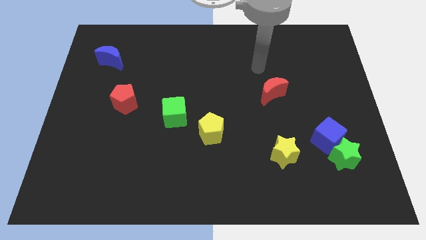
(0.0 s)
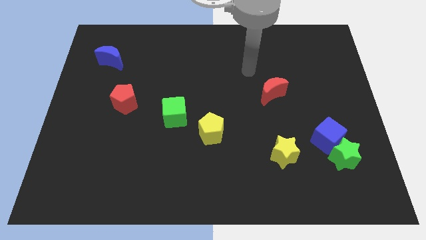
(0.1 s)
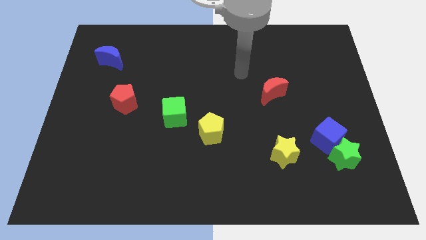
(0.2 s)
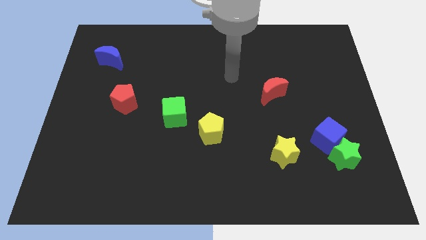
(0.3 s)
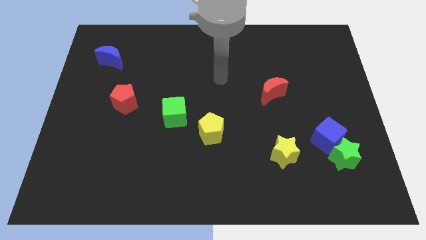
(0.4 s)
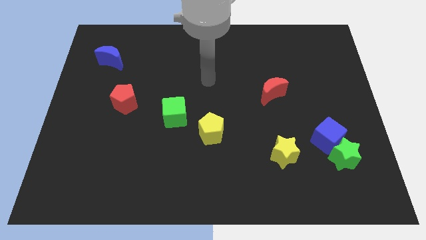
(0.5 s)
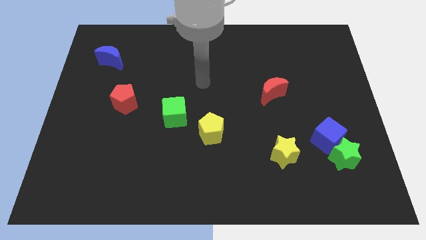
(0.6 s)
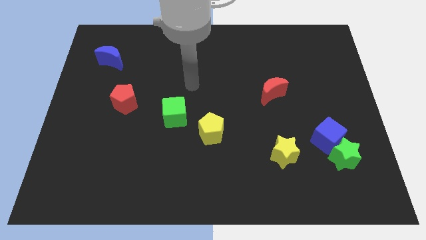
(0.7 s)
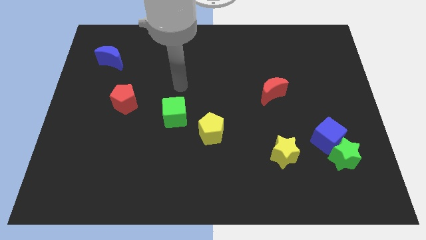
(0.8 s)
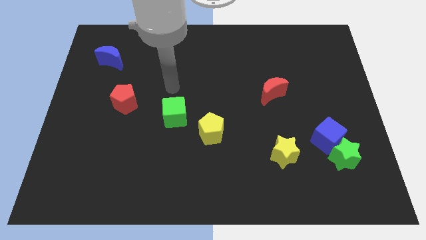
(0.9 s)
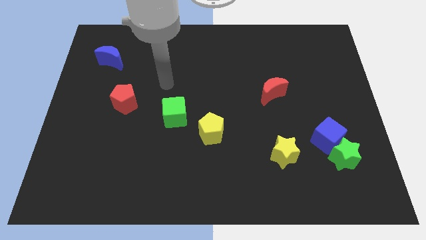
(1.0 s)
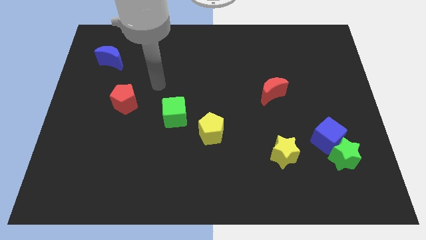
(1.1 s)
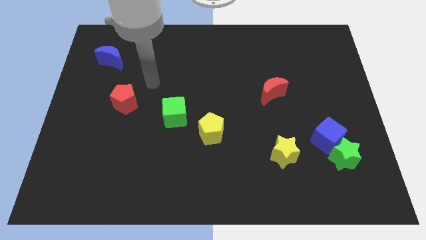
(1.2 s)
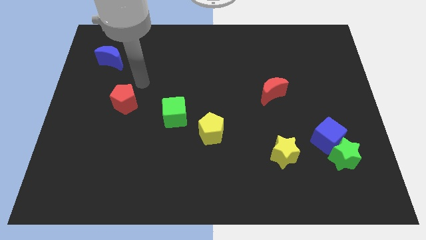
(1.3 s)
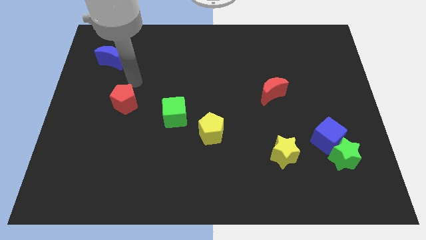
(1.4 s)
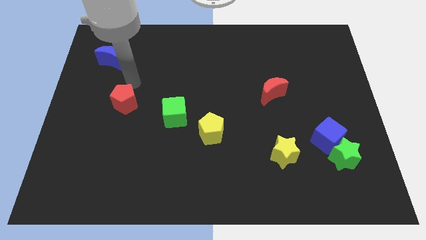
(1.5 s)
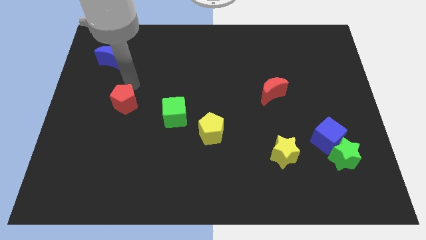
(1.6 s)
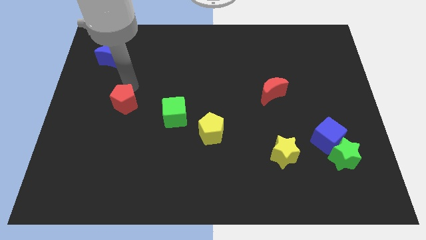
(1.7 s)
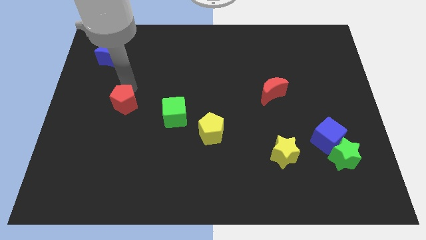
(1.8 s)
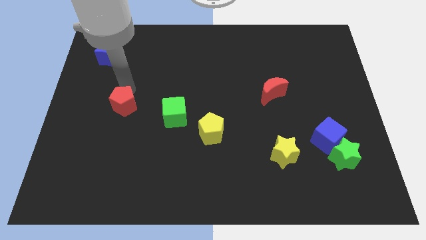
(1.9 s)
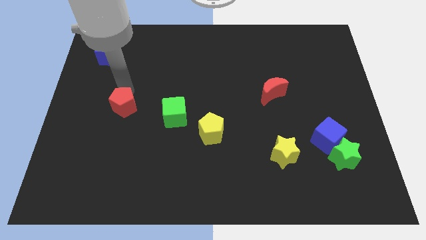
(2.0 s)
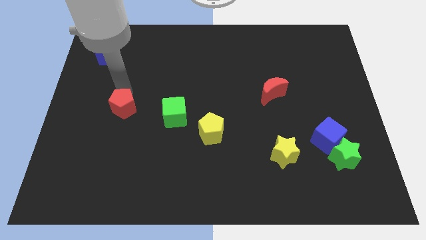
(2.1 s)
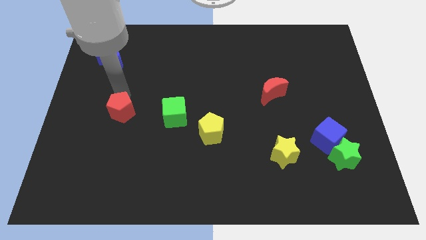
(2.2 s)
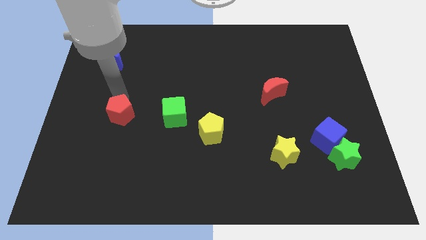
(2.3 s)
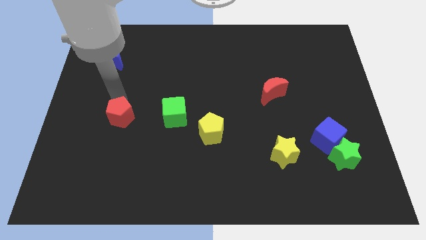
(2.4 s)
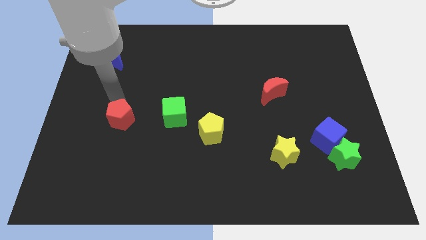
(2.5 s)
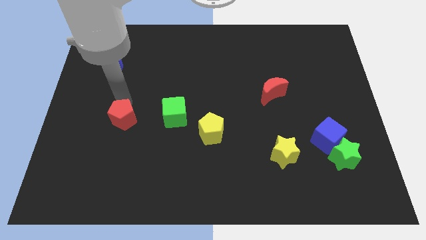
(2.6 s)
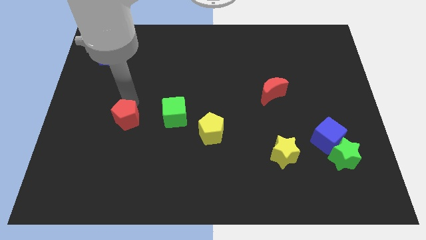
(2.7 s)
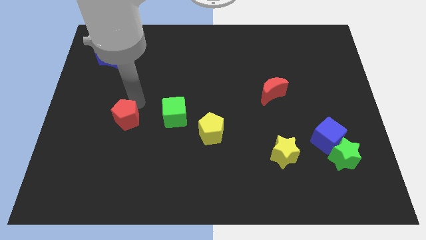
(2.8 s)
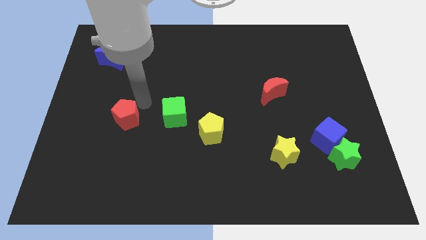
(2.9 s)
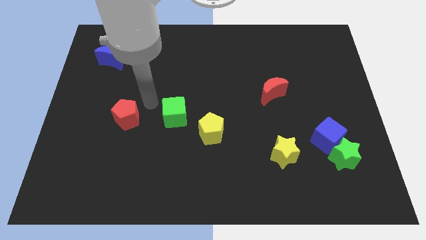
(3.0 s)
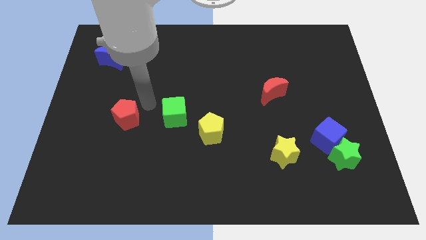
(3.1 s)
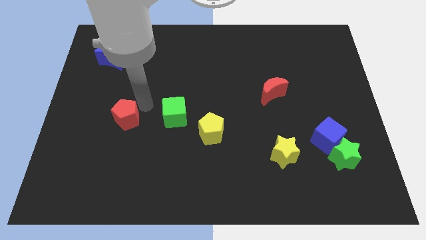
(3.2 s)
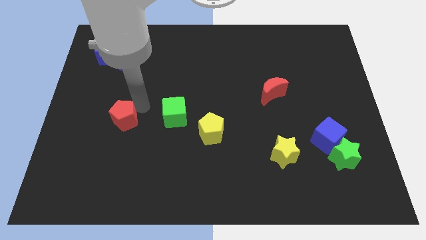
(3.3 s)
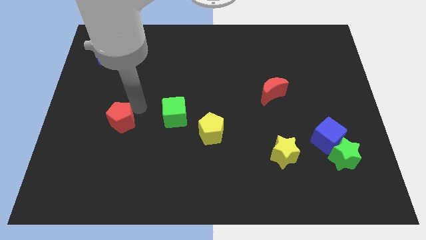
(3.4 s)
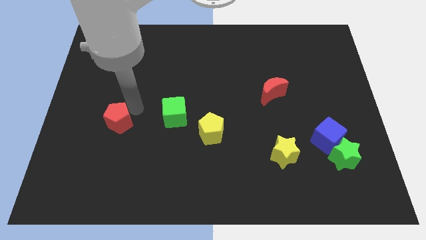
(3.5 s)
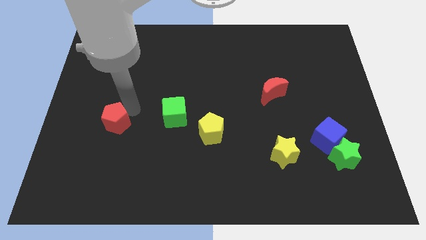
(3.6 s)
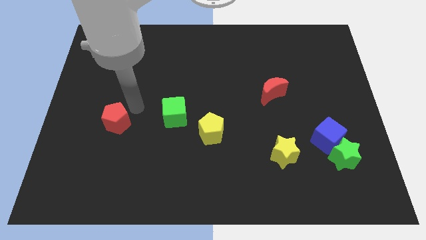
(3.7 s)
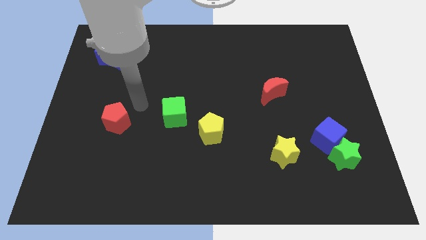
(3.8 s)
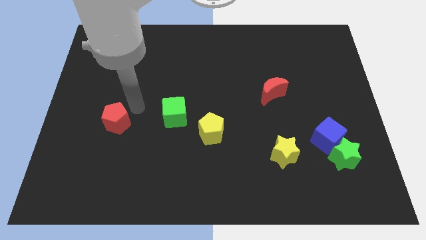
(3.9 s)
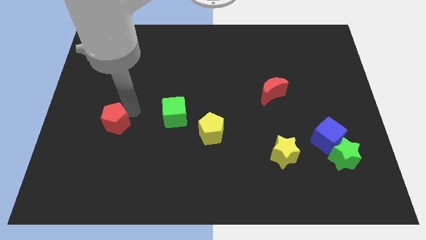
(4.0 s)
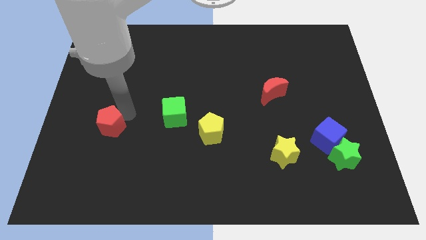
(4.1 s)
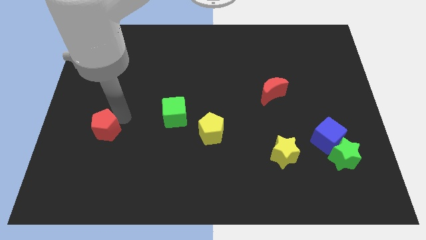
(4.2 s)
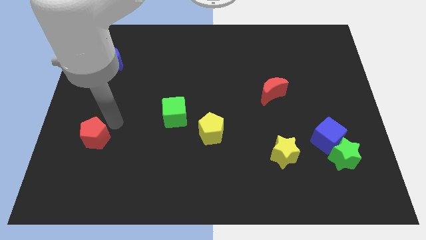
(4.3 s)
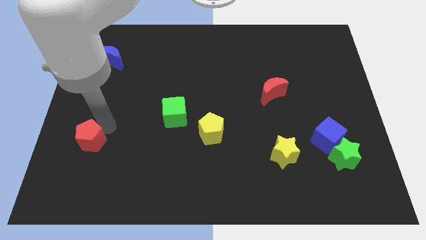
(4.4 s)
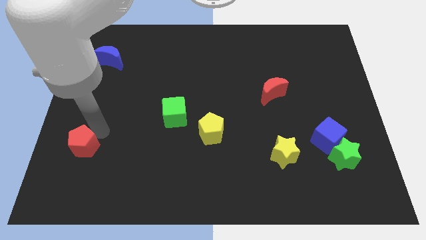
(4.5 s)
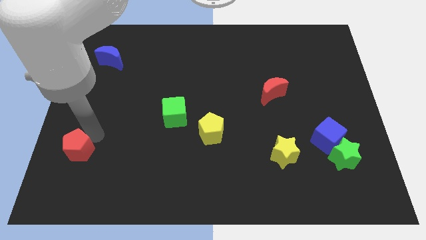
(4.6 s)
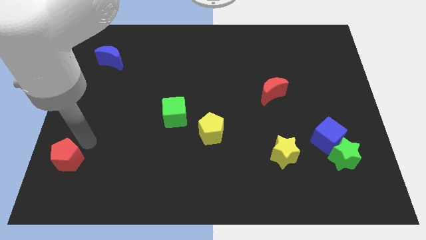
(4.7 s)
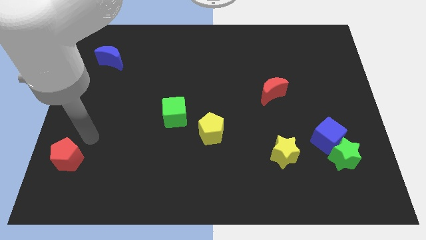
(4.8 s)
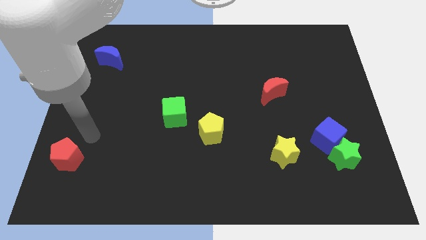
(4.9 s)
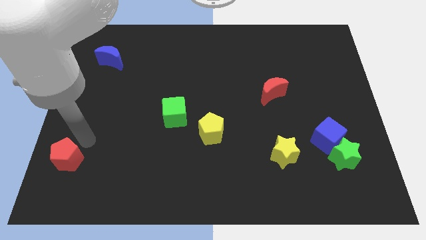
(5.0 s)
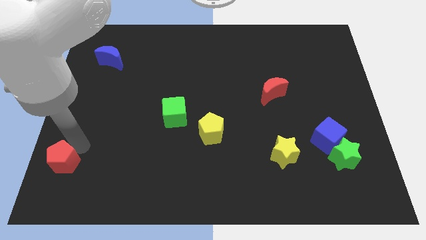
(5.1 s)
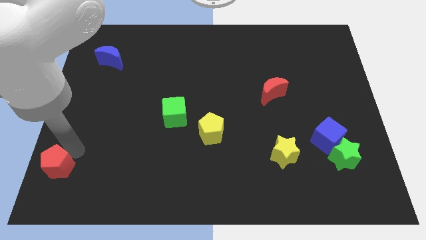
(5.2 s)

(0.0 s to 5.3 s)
move the red pentagon to the lower left corner
